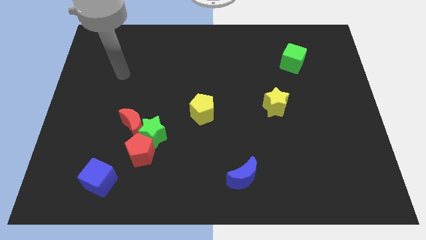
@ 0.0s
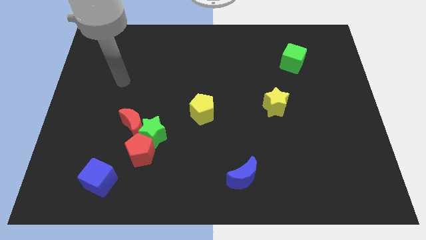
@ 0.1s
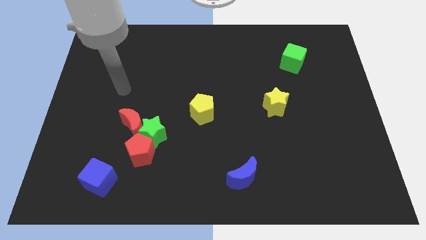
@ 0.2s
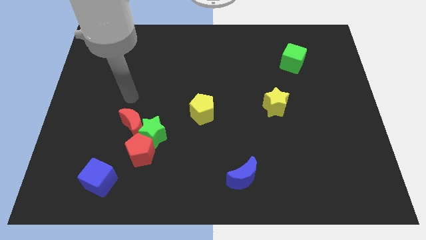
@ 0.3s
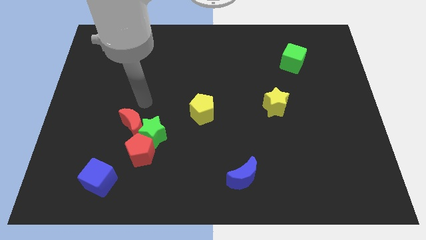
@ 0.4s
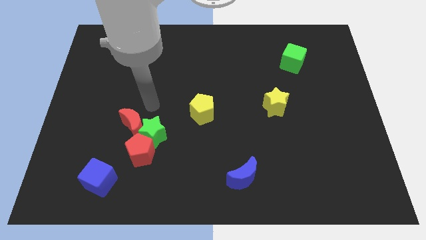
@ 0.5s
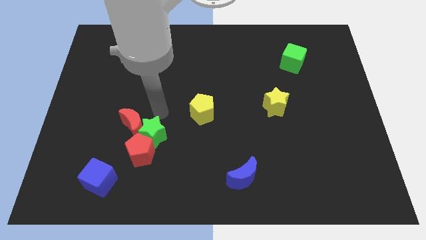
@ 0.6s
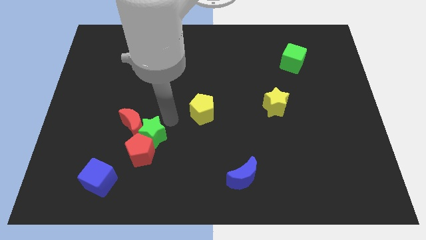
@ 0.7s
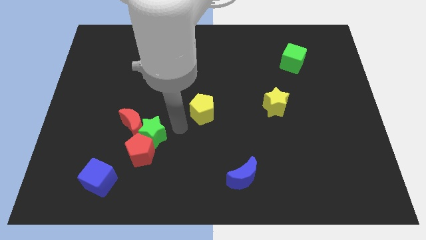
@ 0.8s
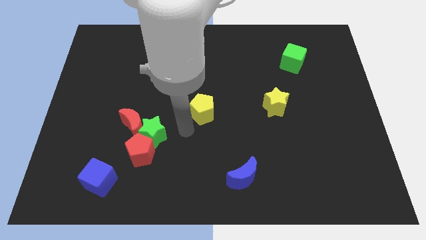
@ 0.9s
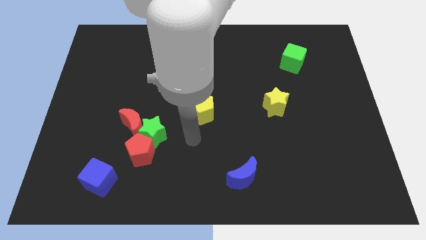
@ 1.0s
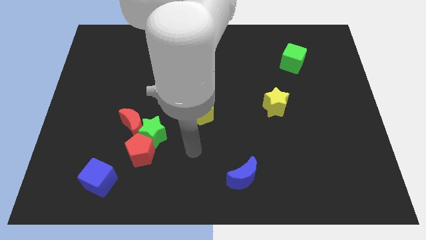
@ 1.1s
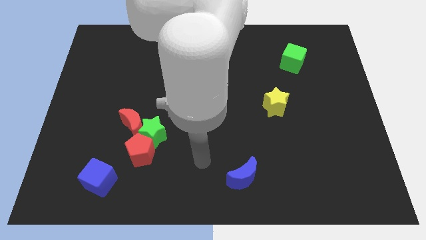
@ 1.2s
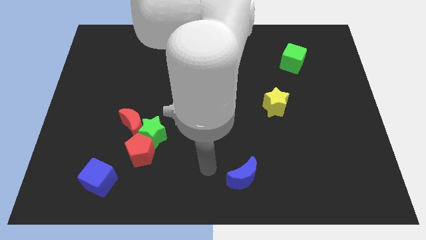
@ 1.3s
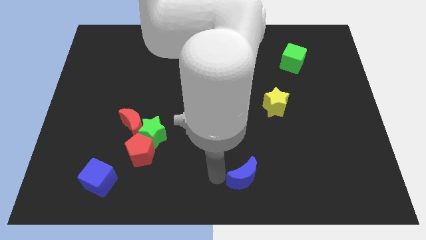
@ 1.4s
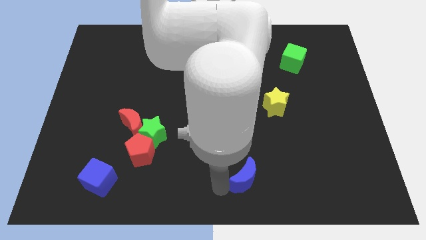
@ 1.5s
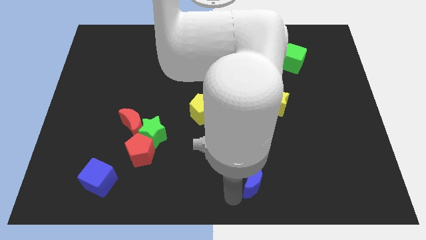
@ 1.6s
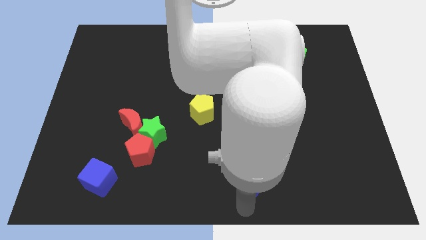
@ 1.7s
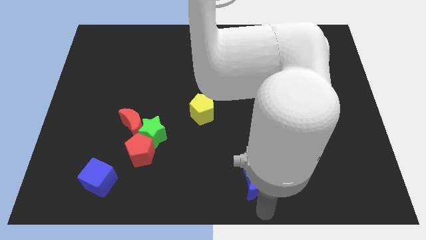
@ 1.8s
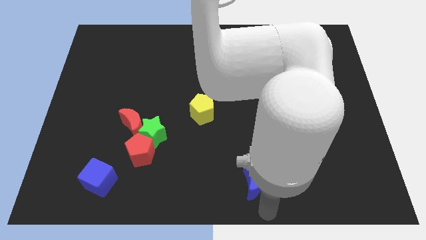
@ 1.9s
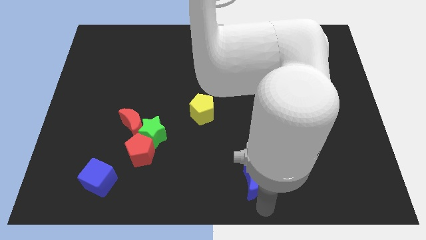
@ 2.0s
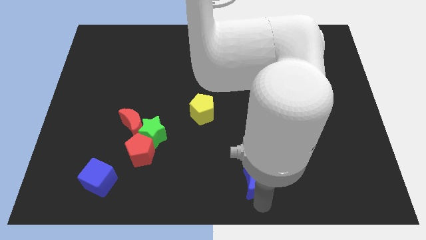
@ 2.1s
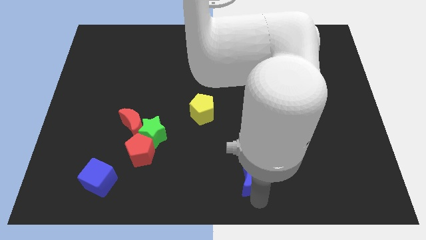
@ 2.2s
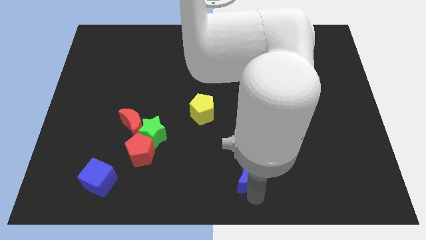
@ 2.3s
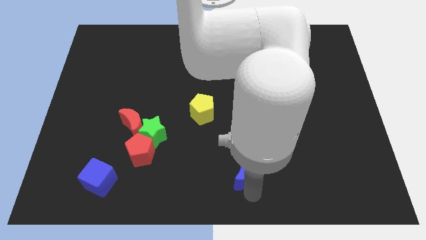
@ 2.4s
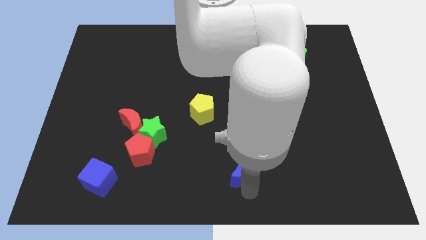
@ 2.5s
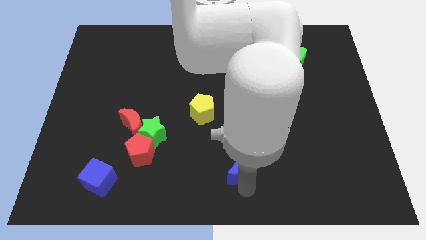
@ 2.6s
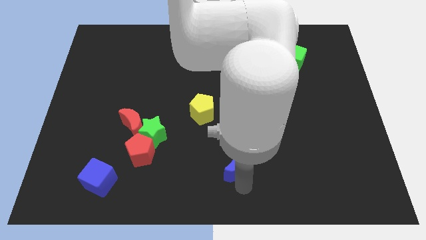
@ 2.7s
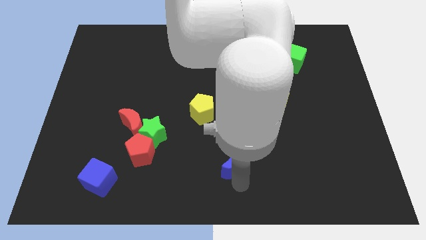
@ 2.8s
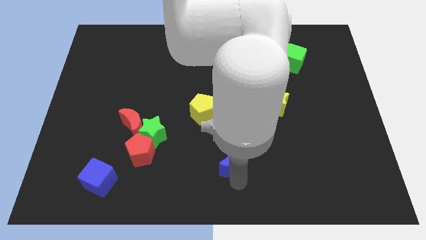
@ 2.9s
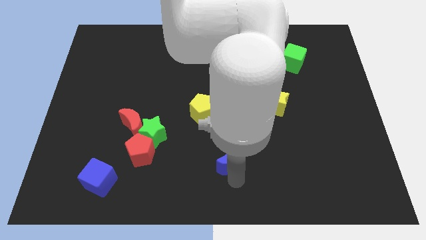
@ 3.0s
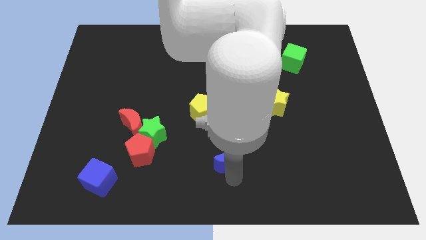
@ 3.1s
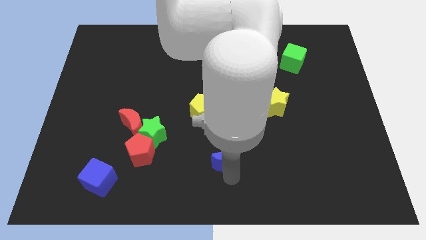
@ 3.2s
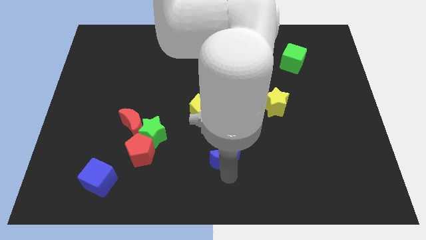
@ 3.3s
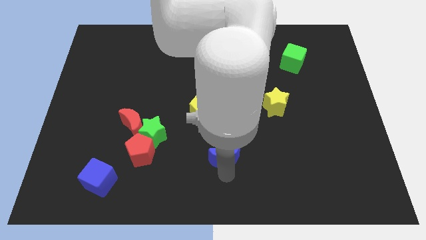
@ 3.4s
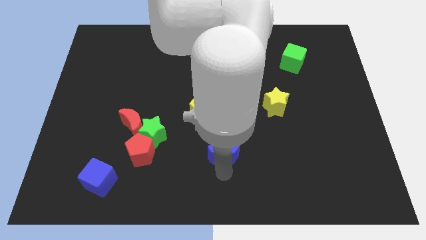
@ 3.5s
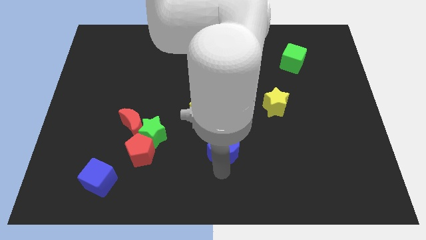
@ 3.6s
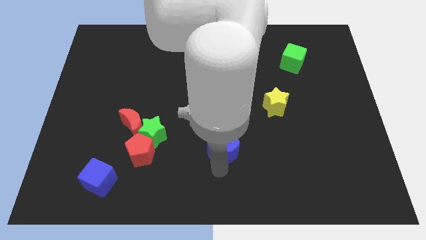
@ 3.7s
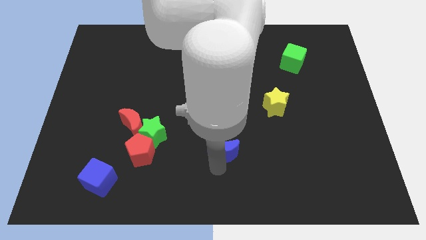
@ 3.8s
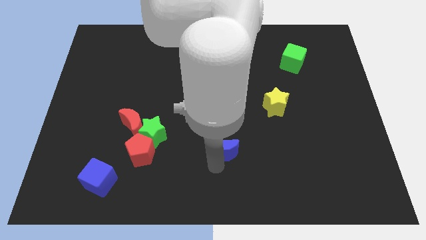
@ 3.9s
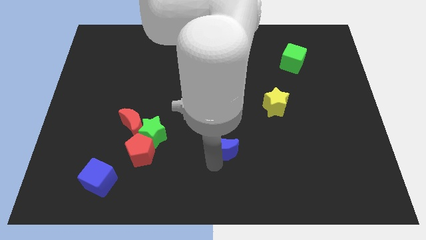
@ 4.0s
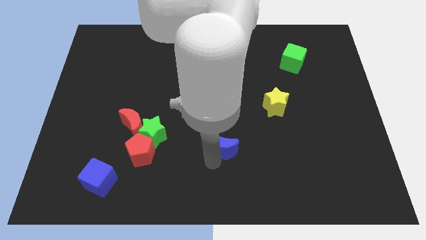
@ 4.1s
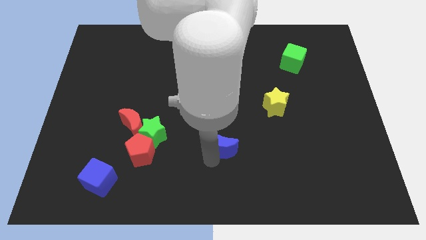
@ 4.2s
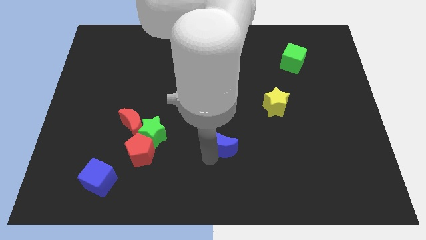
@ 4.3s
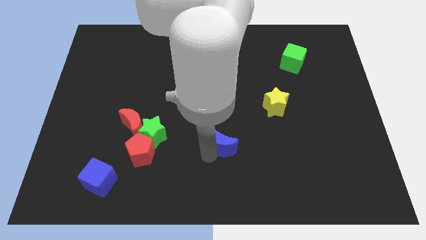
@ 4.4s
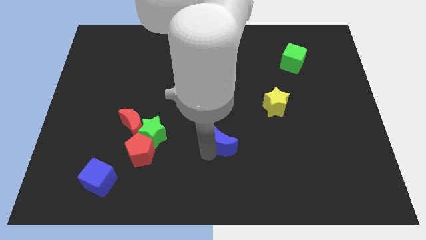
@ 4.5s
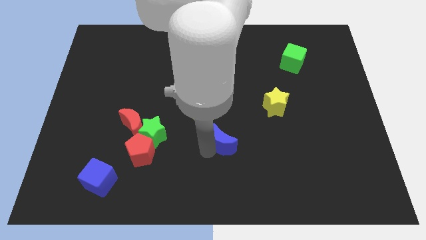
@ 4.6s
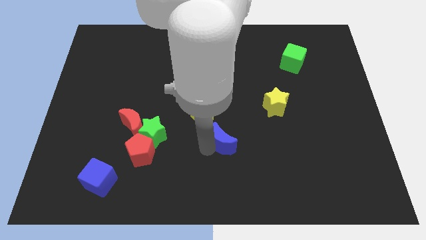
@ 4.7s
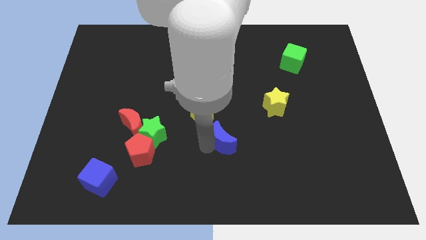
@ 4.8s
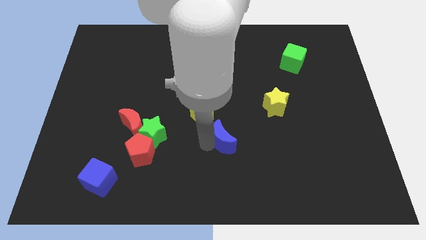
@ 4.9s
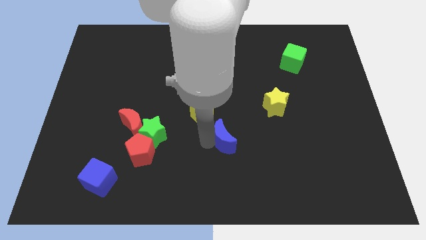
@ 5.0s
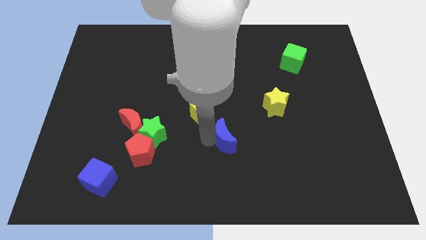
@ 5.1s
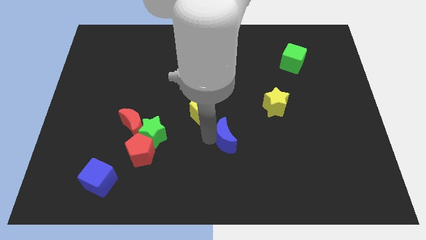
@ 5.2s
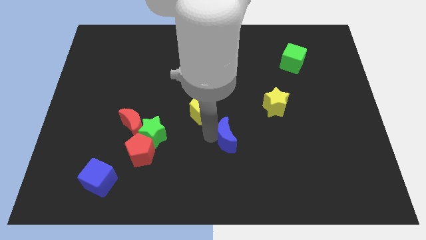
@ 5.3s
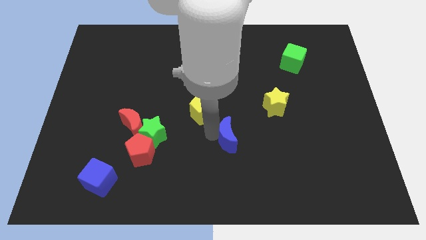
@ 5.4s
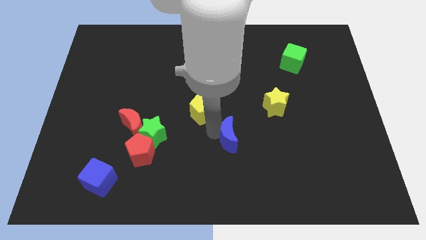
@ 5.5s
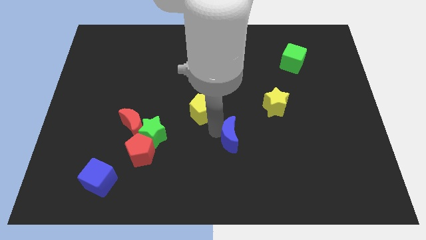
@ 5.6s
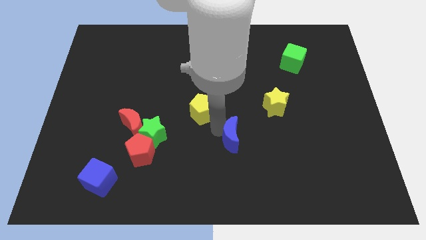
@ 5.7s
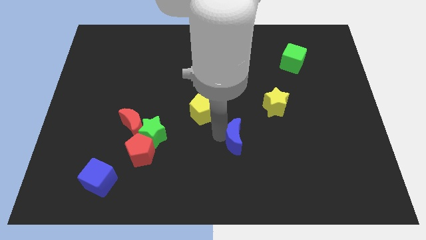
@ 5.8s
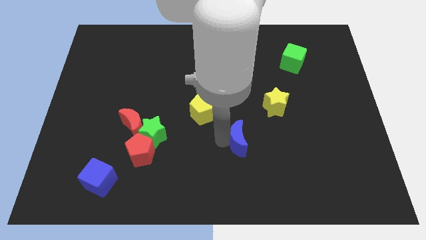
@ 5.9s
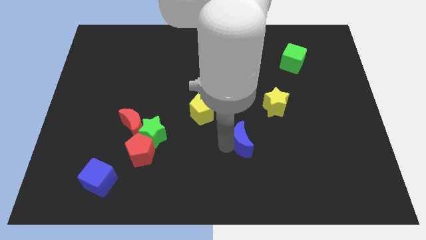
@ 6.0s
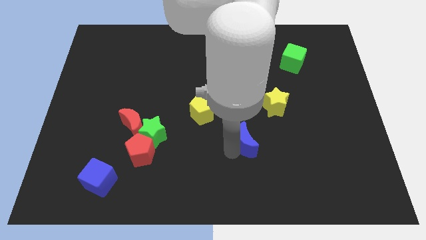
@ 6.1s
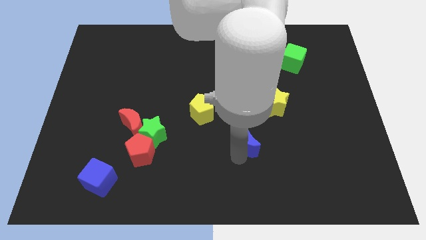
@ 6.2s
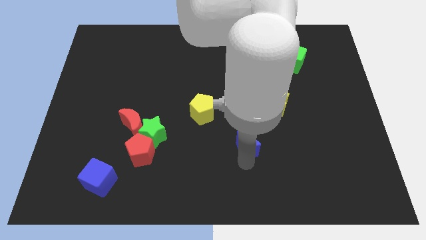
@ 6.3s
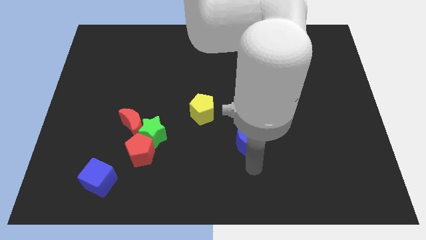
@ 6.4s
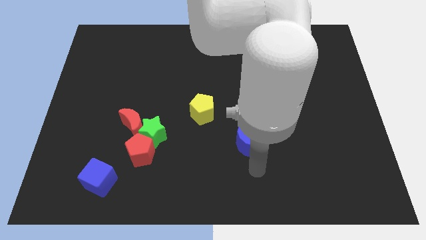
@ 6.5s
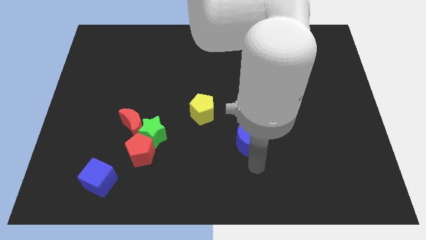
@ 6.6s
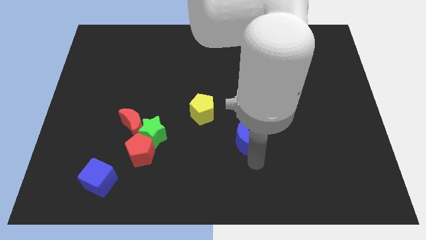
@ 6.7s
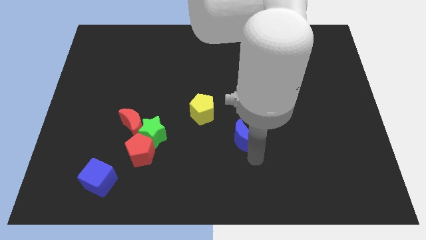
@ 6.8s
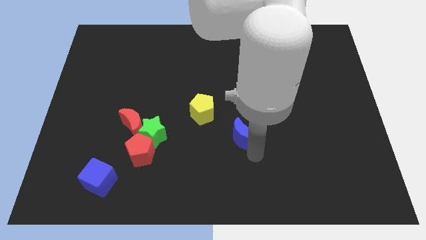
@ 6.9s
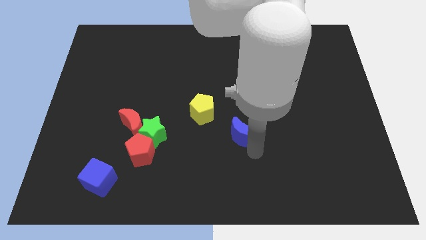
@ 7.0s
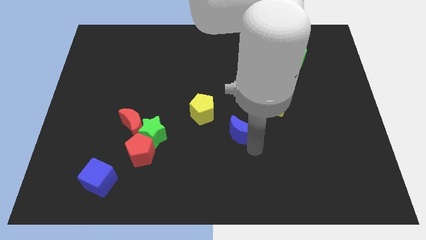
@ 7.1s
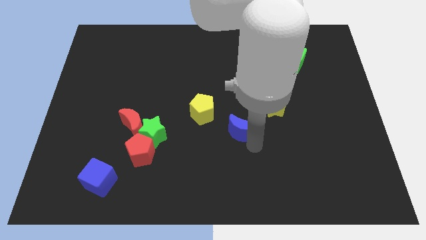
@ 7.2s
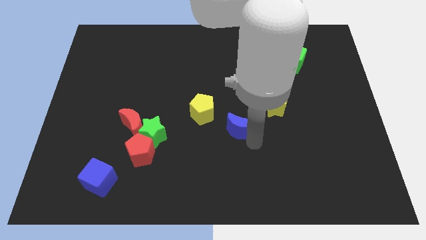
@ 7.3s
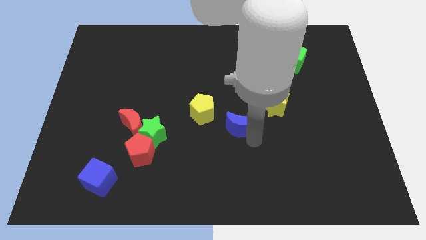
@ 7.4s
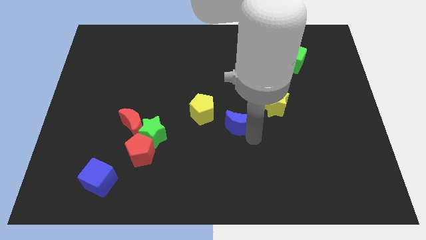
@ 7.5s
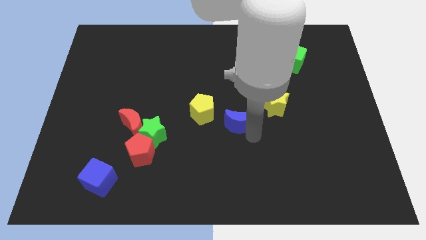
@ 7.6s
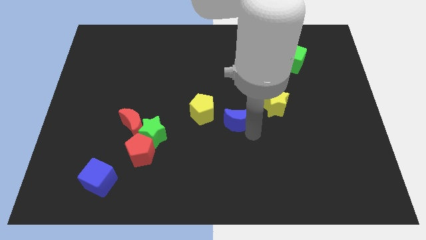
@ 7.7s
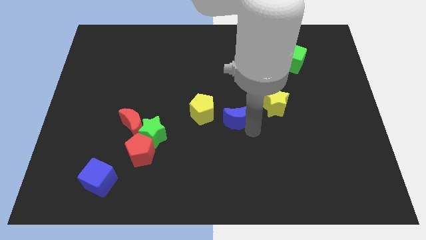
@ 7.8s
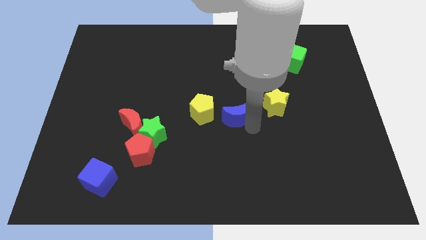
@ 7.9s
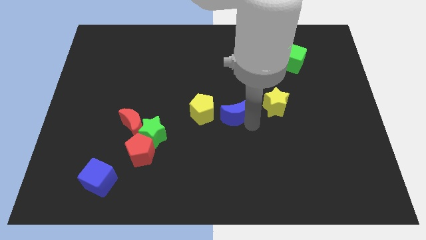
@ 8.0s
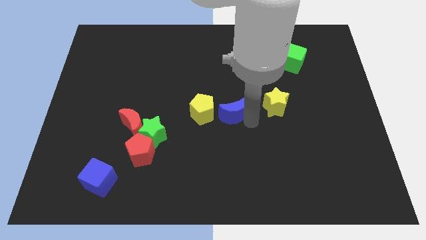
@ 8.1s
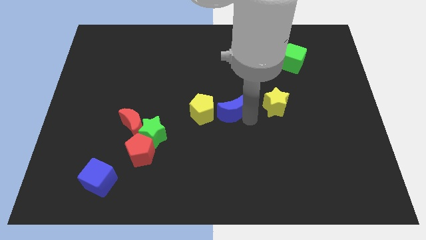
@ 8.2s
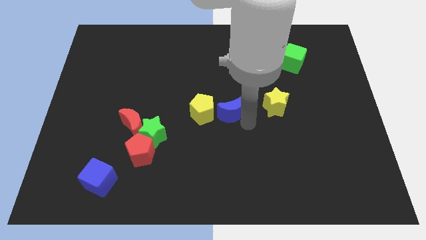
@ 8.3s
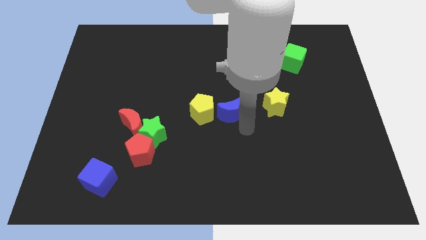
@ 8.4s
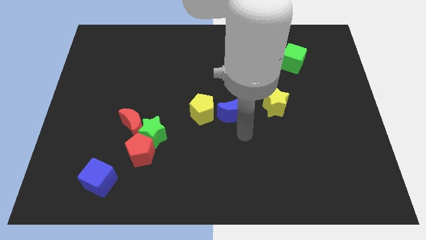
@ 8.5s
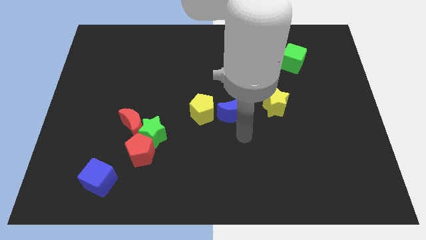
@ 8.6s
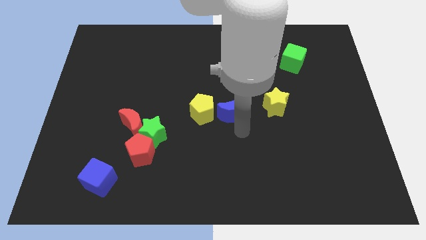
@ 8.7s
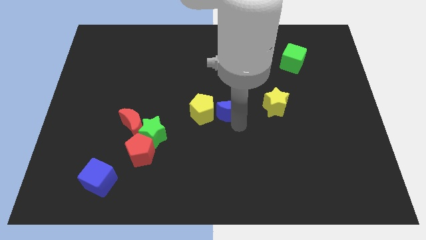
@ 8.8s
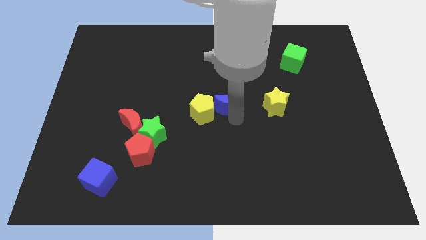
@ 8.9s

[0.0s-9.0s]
put the blue moon to the top right side of the yellow pentagon
